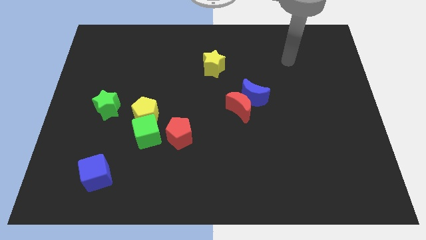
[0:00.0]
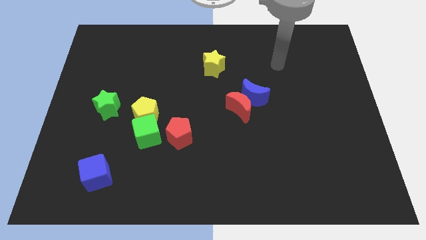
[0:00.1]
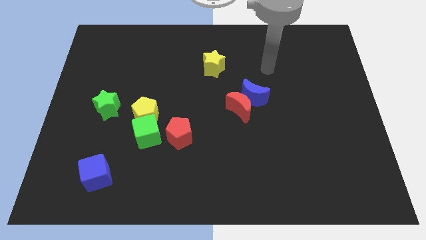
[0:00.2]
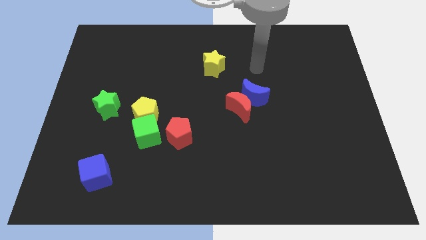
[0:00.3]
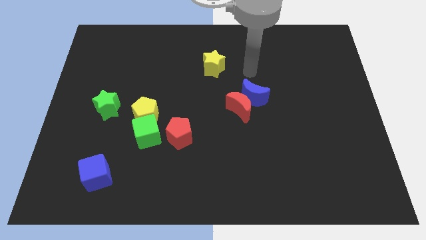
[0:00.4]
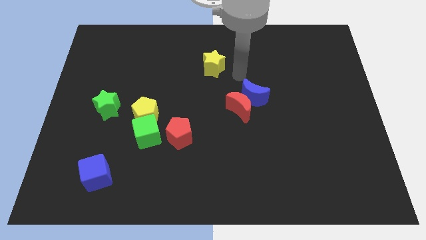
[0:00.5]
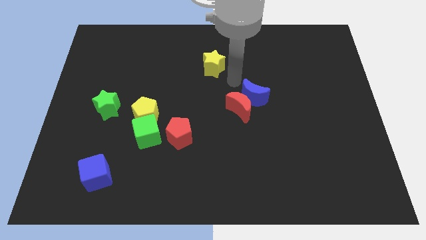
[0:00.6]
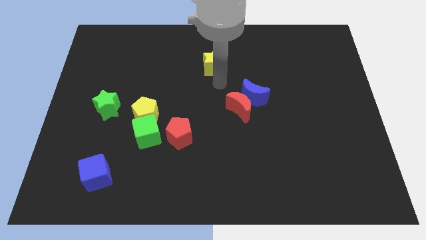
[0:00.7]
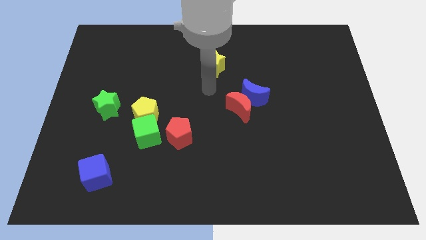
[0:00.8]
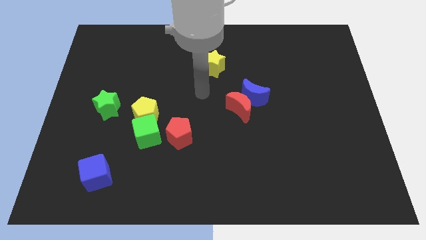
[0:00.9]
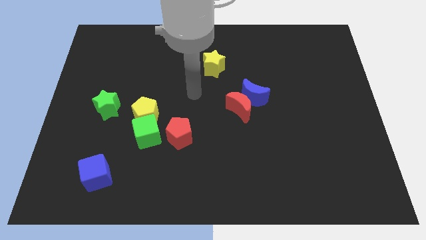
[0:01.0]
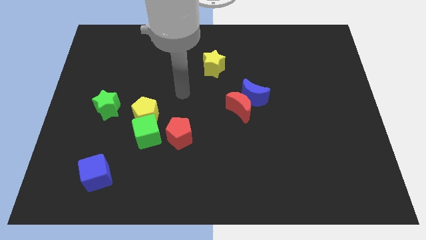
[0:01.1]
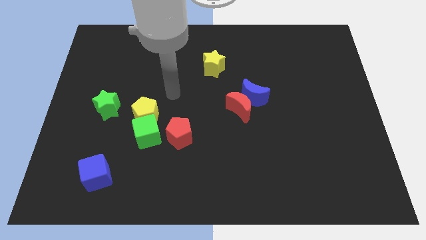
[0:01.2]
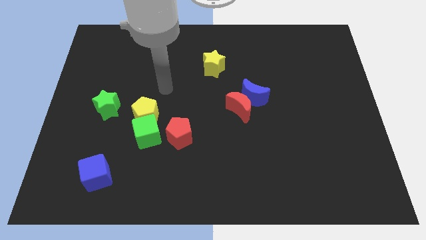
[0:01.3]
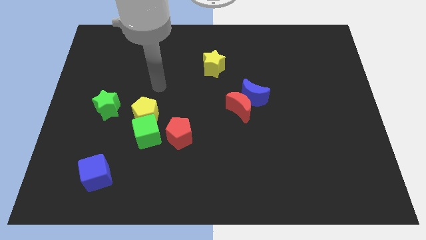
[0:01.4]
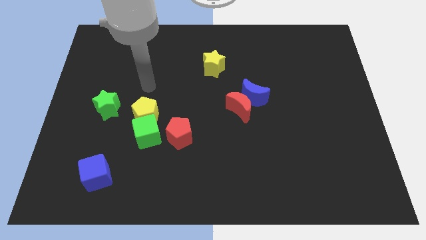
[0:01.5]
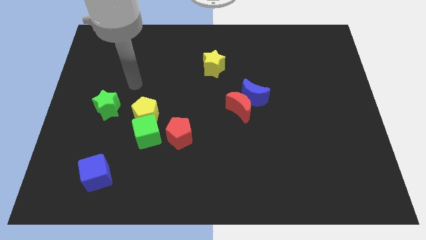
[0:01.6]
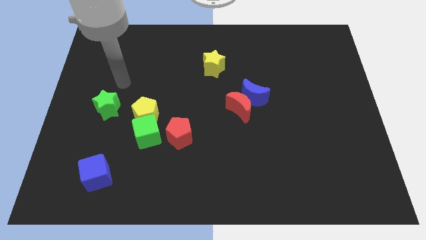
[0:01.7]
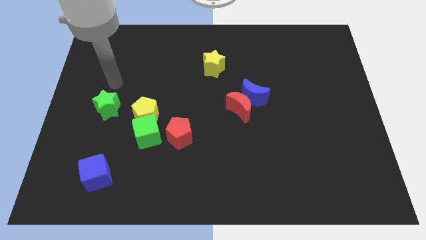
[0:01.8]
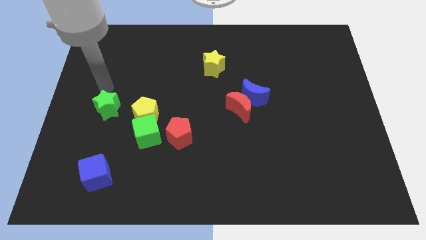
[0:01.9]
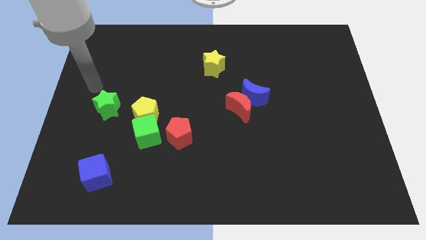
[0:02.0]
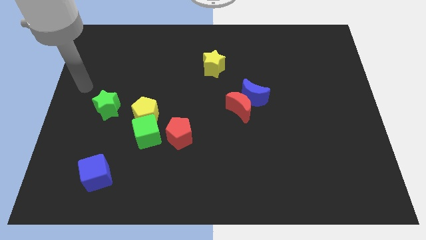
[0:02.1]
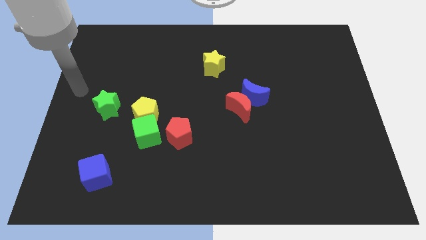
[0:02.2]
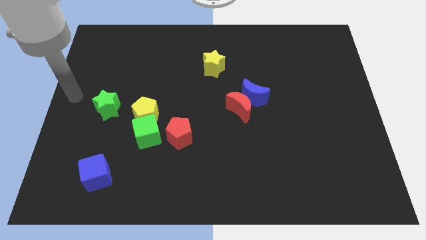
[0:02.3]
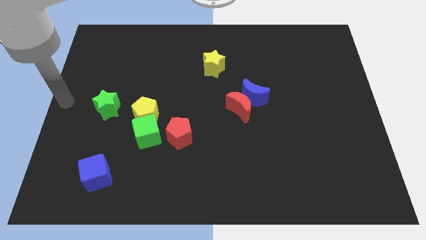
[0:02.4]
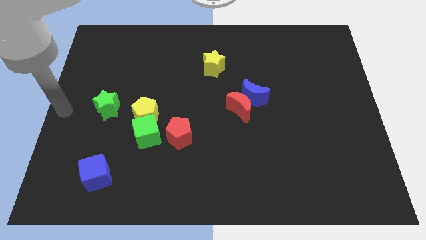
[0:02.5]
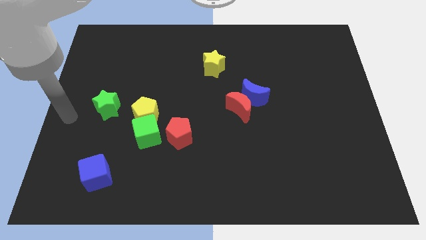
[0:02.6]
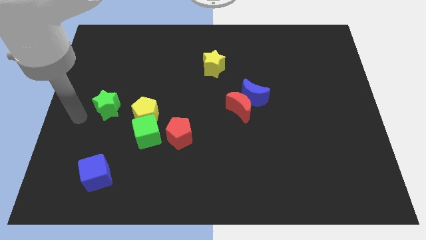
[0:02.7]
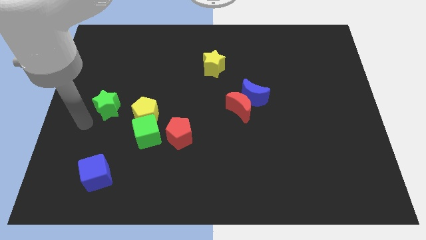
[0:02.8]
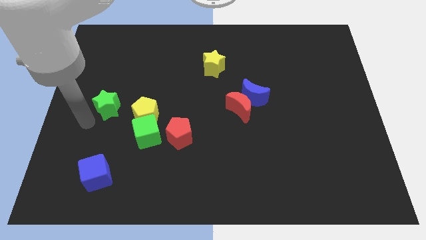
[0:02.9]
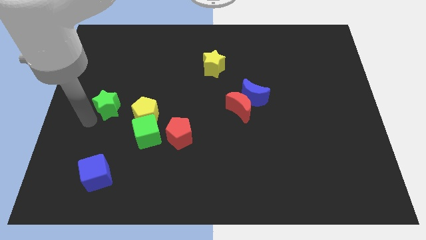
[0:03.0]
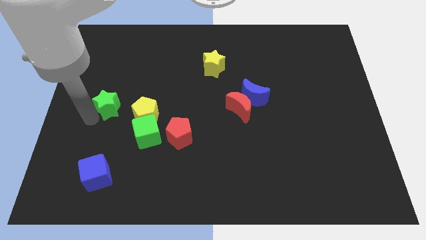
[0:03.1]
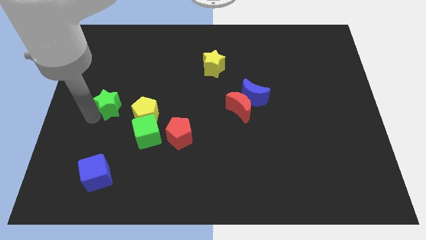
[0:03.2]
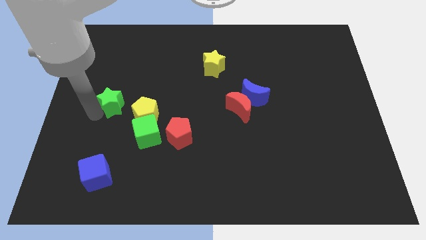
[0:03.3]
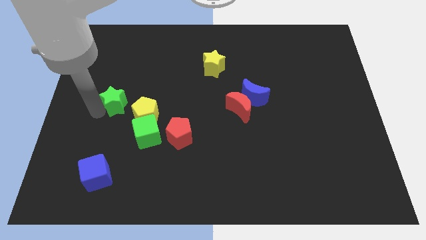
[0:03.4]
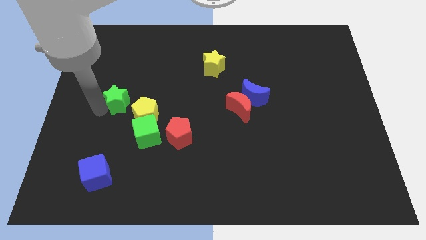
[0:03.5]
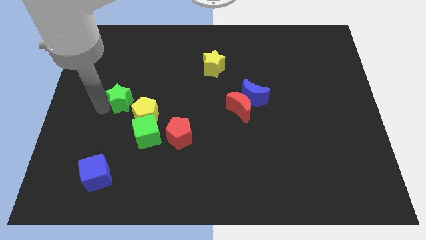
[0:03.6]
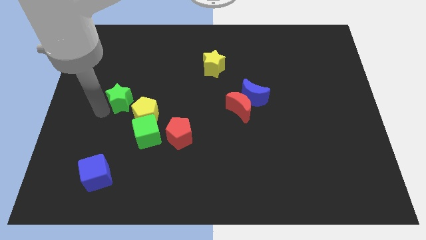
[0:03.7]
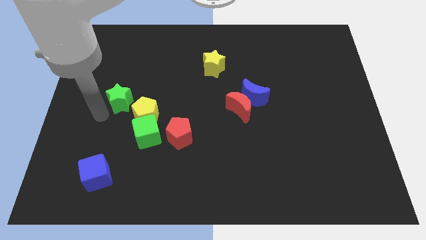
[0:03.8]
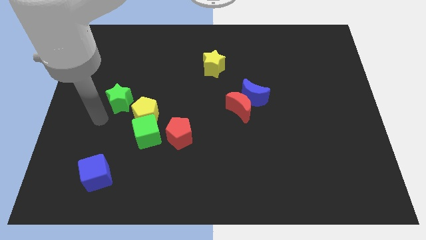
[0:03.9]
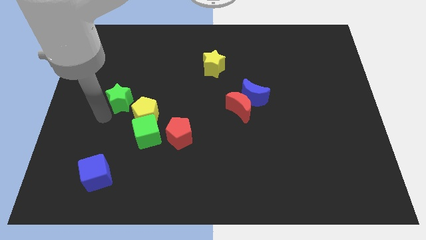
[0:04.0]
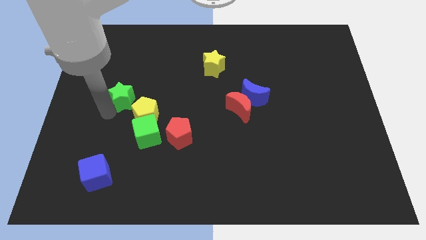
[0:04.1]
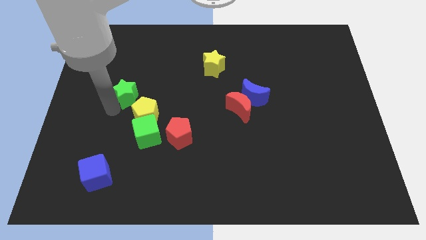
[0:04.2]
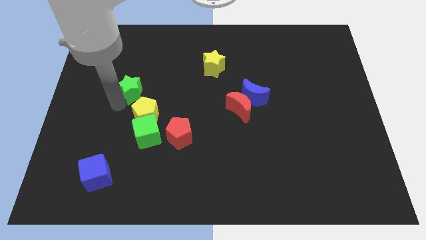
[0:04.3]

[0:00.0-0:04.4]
slightly push the green star up and to the right diagonally

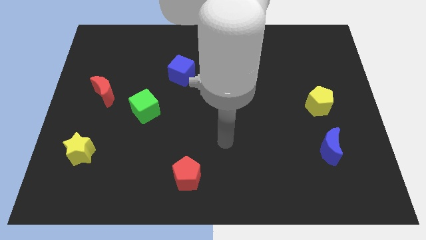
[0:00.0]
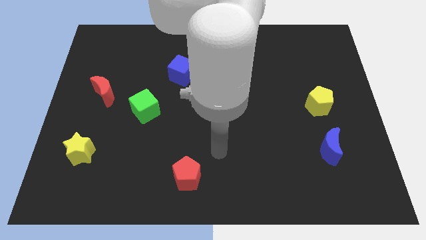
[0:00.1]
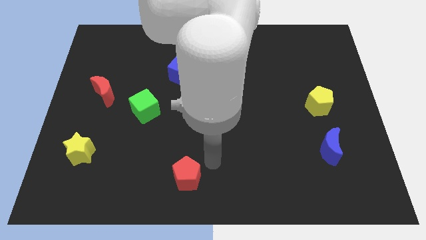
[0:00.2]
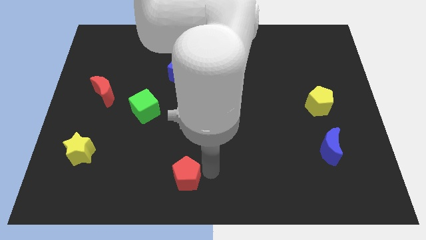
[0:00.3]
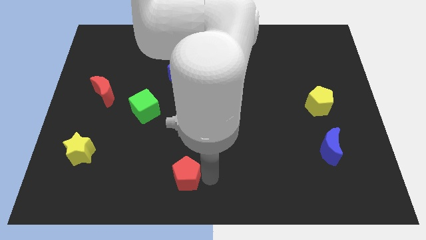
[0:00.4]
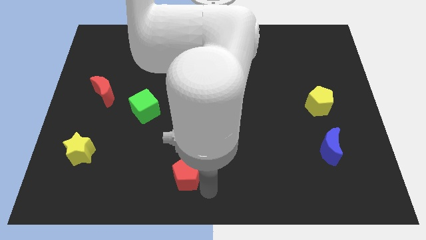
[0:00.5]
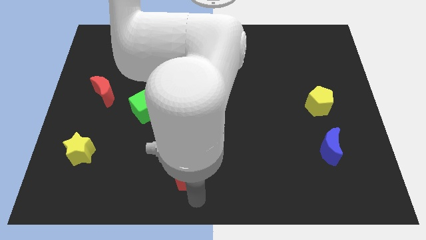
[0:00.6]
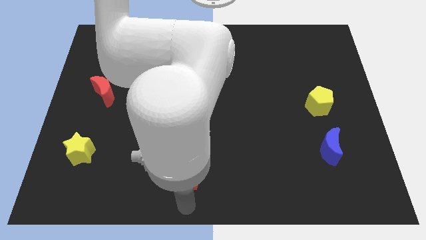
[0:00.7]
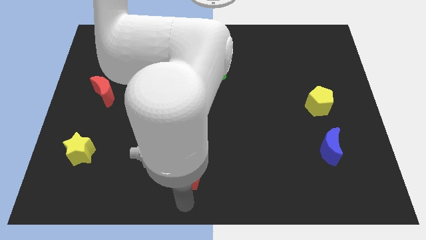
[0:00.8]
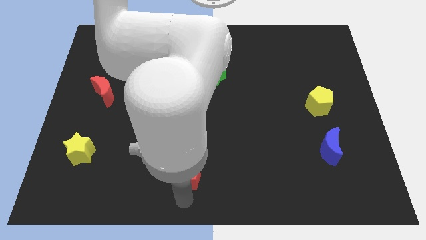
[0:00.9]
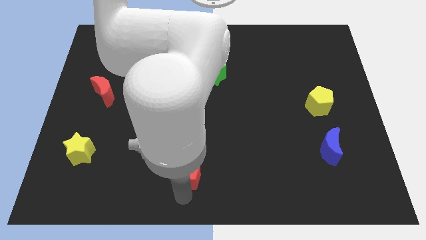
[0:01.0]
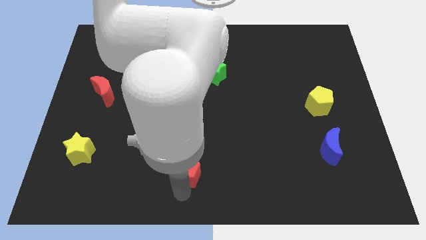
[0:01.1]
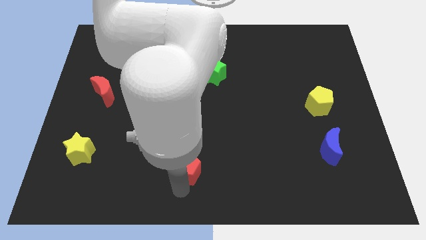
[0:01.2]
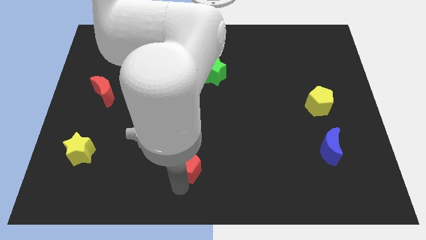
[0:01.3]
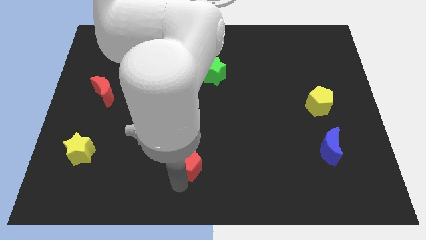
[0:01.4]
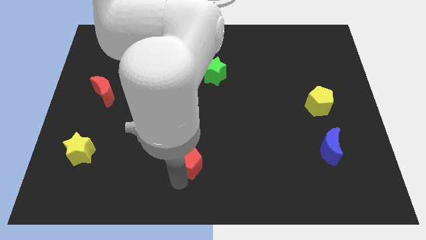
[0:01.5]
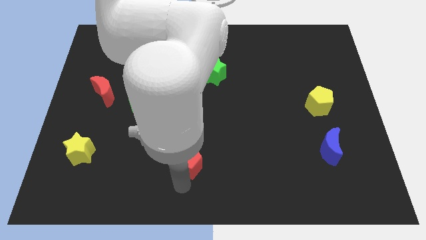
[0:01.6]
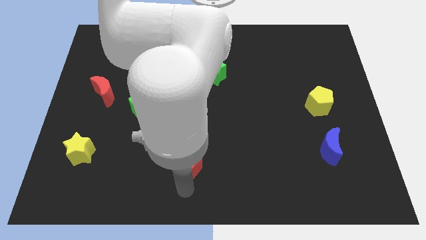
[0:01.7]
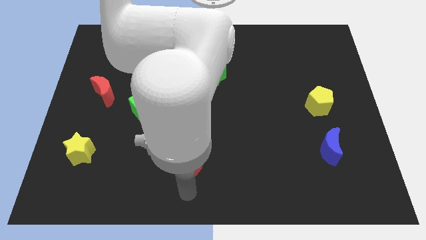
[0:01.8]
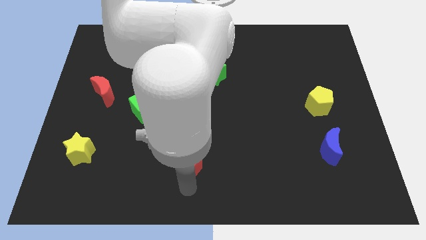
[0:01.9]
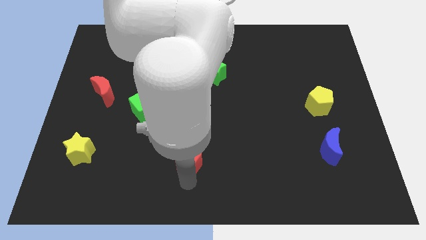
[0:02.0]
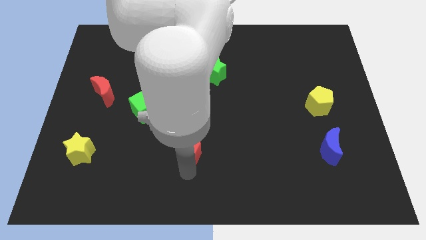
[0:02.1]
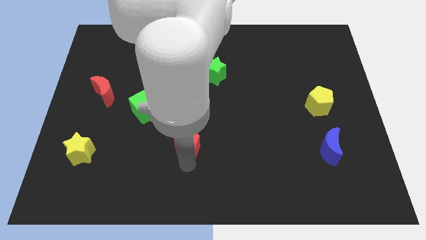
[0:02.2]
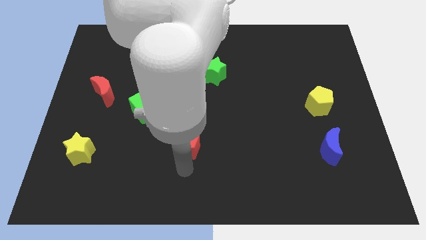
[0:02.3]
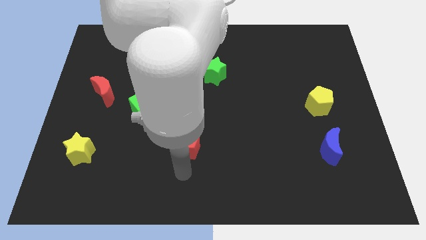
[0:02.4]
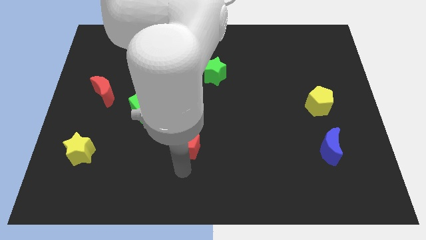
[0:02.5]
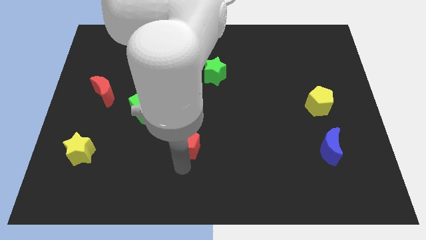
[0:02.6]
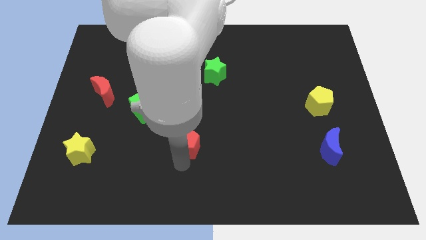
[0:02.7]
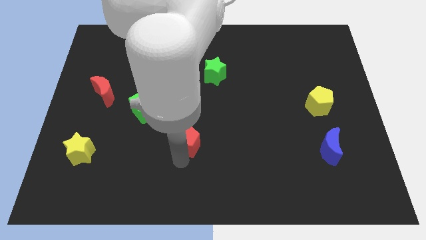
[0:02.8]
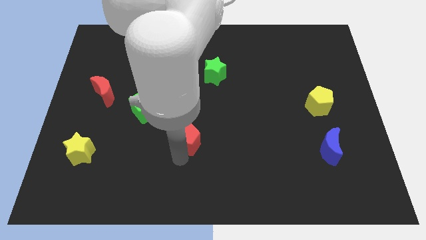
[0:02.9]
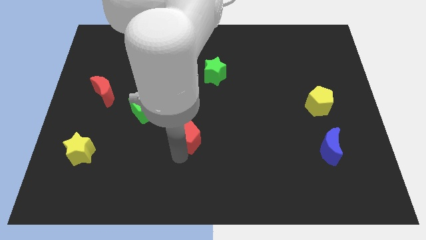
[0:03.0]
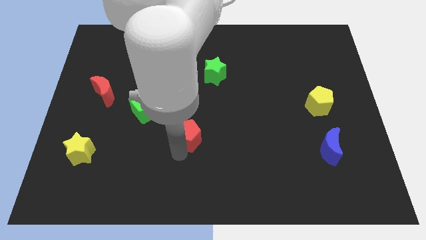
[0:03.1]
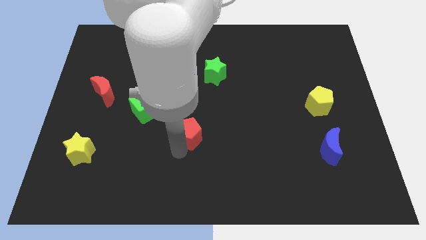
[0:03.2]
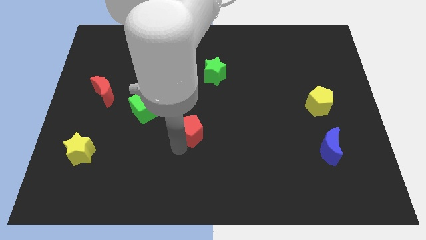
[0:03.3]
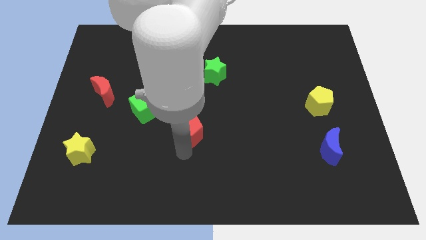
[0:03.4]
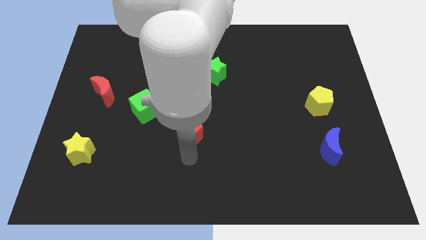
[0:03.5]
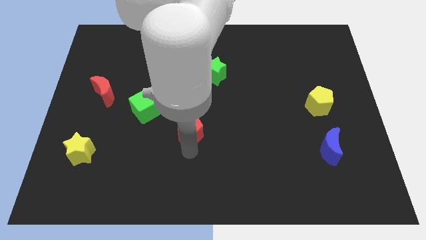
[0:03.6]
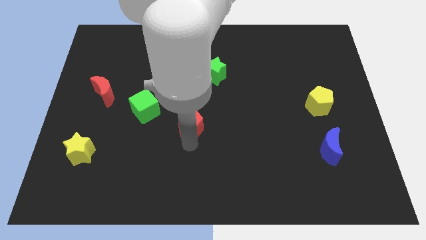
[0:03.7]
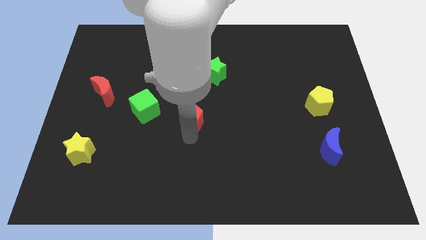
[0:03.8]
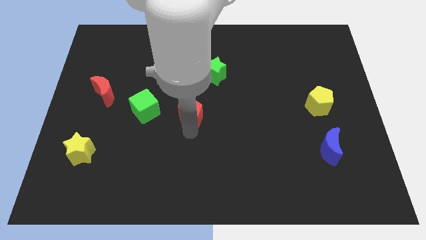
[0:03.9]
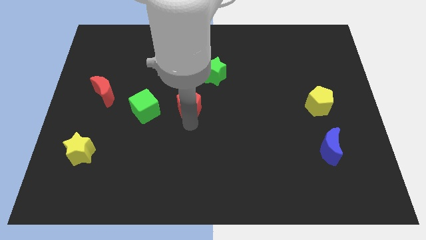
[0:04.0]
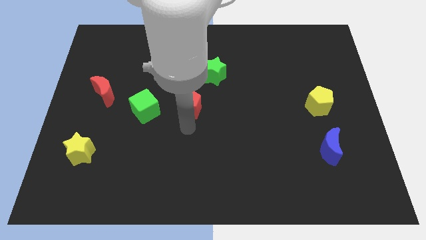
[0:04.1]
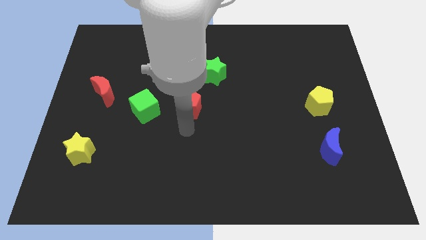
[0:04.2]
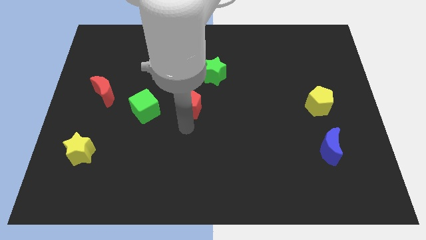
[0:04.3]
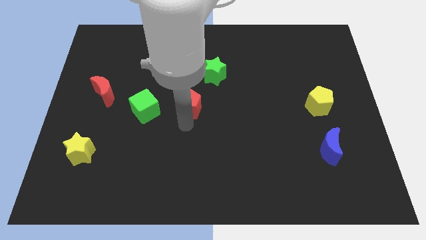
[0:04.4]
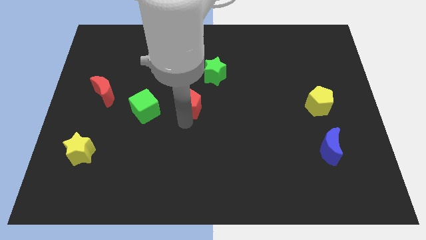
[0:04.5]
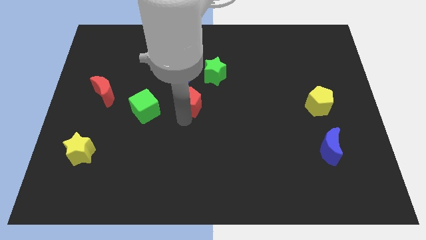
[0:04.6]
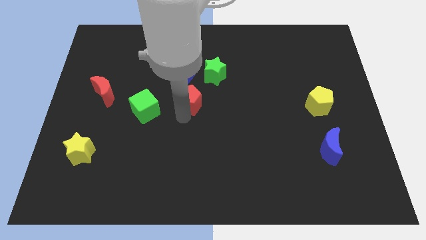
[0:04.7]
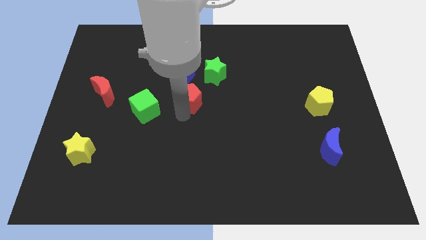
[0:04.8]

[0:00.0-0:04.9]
move the red pentagon up
